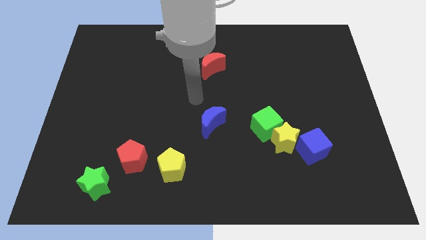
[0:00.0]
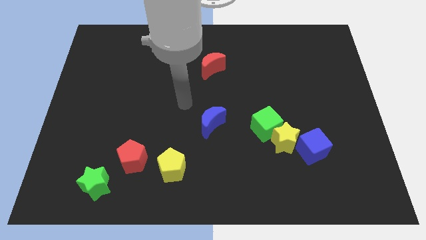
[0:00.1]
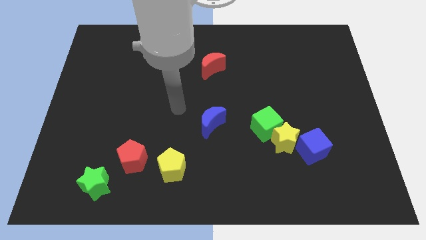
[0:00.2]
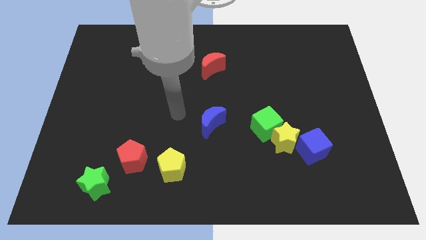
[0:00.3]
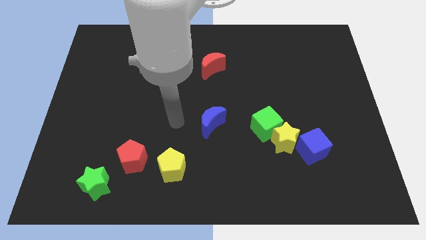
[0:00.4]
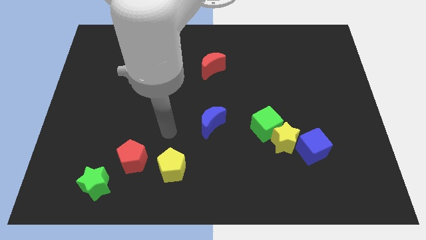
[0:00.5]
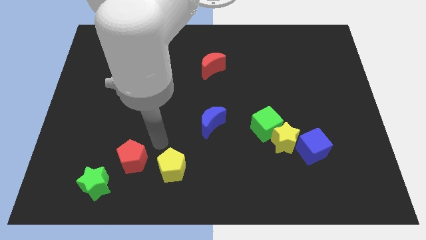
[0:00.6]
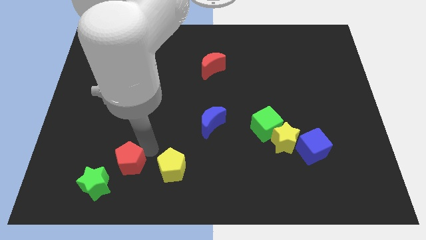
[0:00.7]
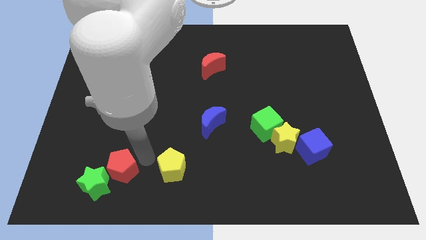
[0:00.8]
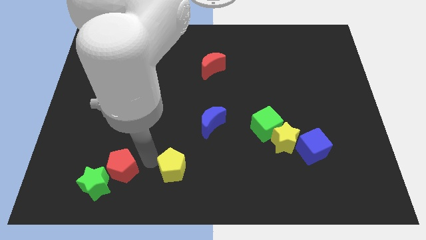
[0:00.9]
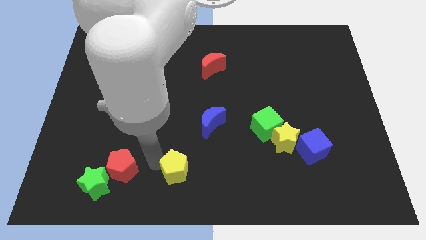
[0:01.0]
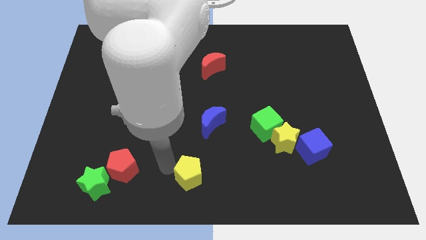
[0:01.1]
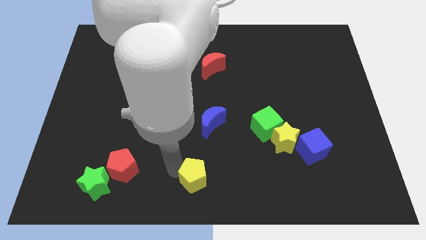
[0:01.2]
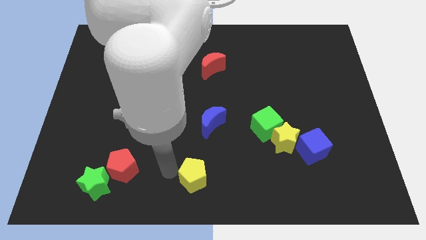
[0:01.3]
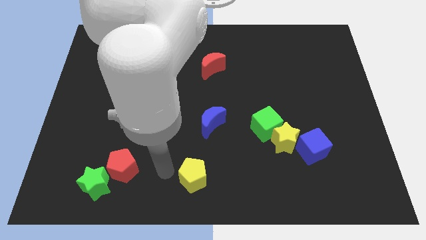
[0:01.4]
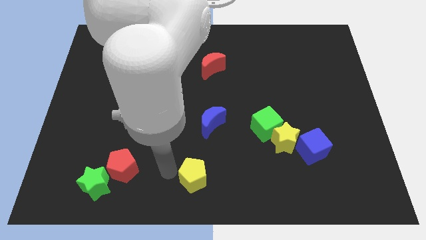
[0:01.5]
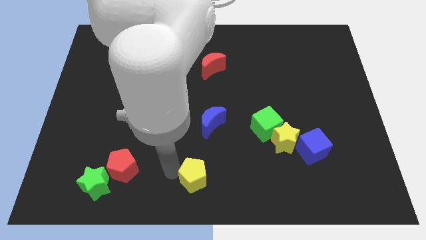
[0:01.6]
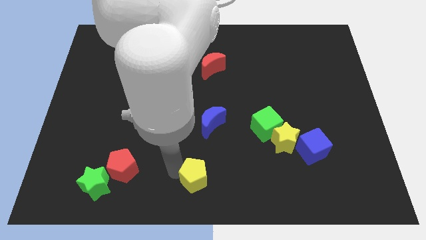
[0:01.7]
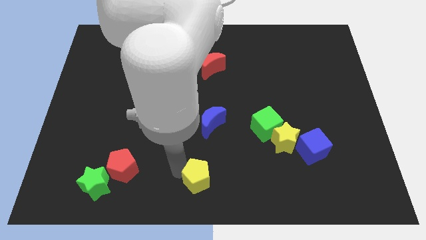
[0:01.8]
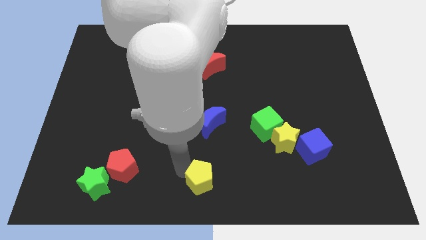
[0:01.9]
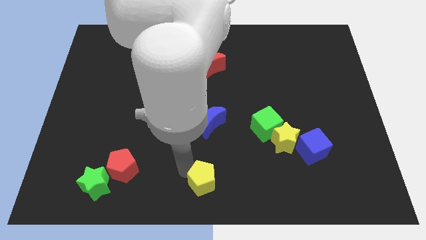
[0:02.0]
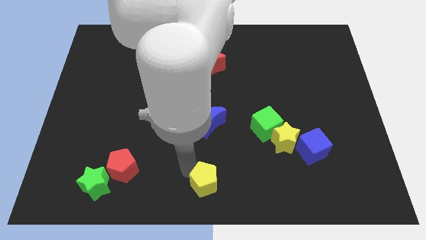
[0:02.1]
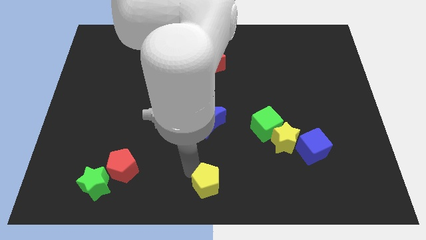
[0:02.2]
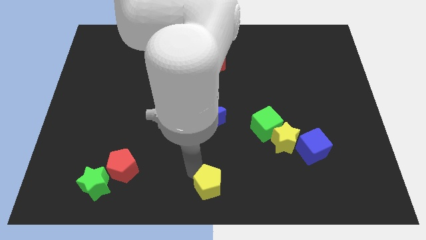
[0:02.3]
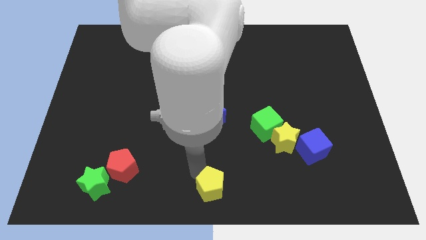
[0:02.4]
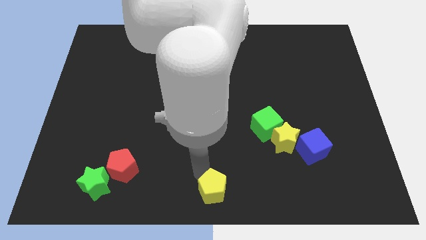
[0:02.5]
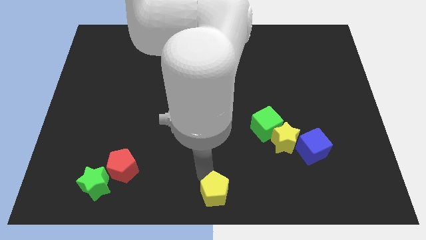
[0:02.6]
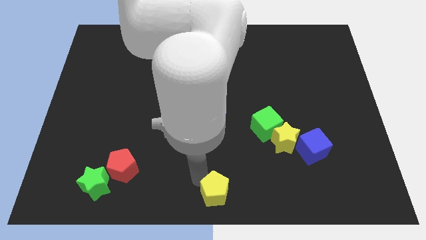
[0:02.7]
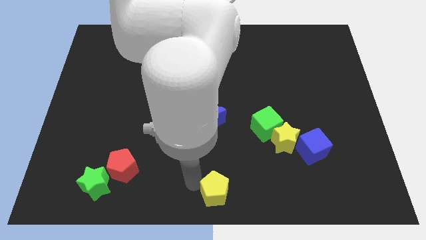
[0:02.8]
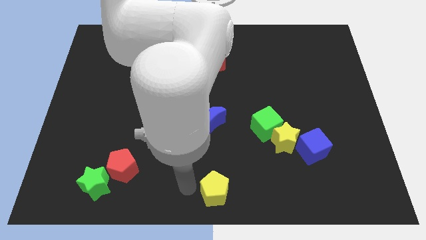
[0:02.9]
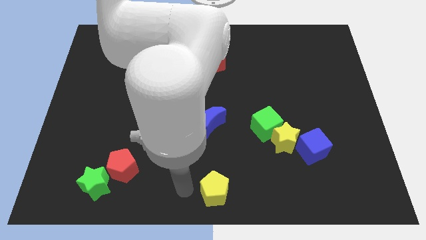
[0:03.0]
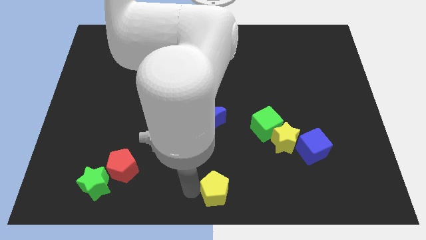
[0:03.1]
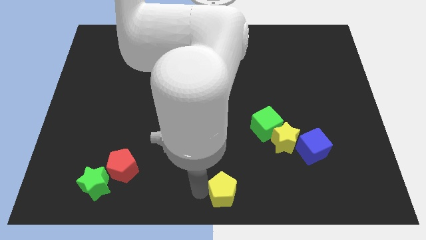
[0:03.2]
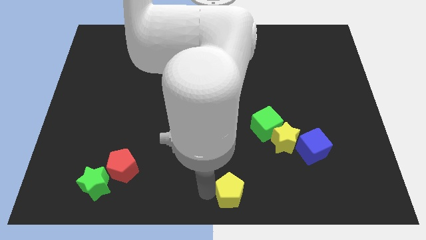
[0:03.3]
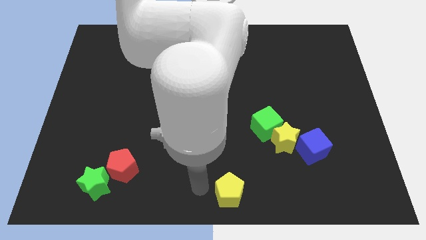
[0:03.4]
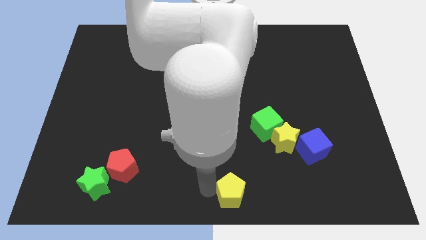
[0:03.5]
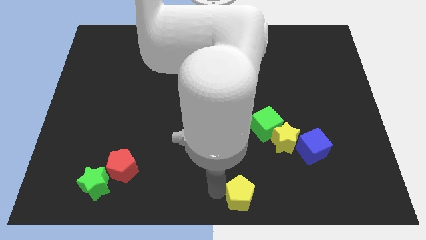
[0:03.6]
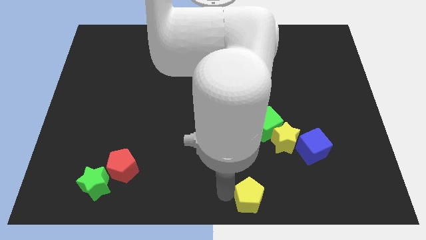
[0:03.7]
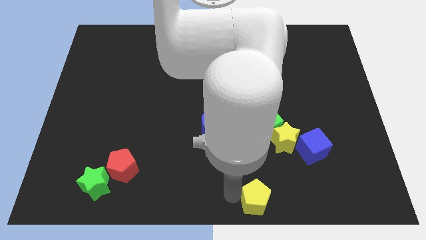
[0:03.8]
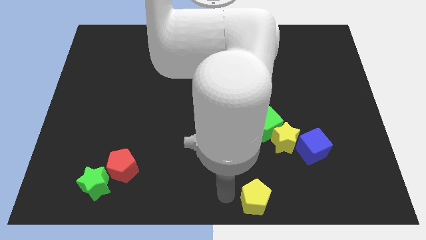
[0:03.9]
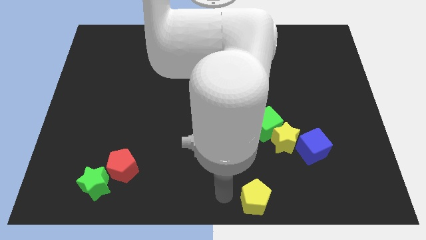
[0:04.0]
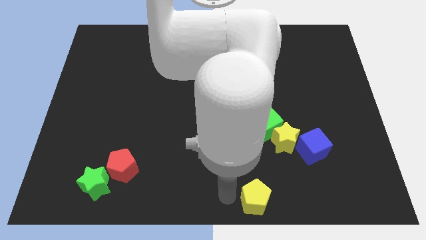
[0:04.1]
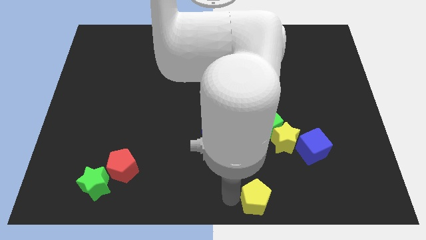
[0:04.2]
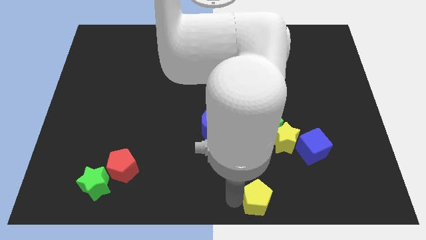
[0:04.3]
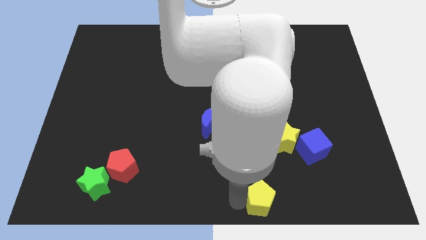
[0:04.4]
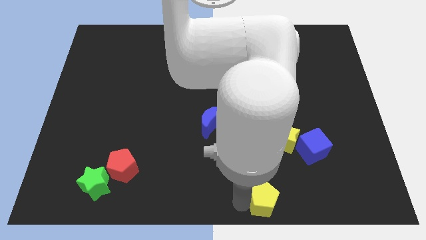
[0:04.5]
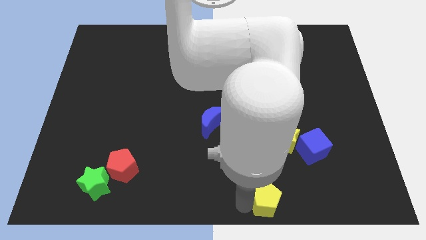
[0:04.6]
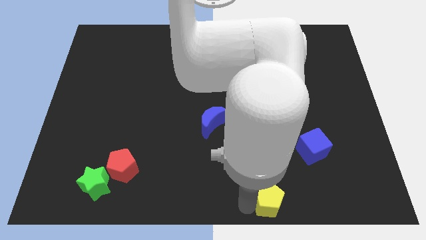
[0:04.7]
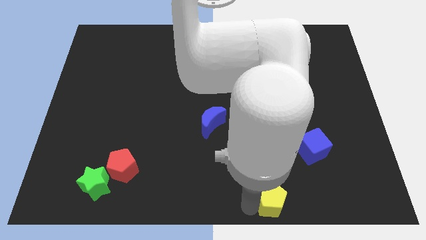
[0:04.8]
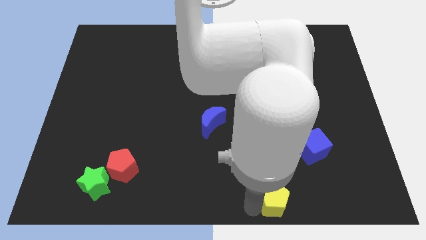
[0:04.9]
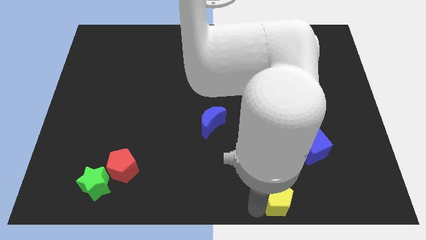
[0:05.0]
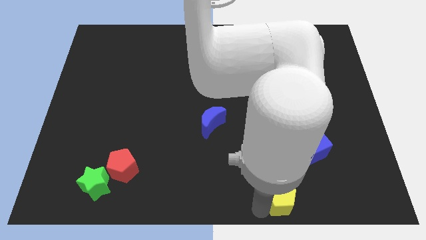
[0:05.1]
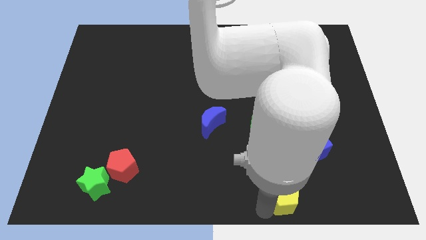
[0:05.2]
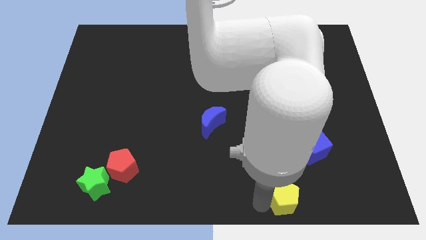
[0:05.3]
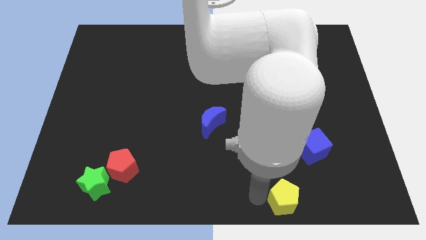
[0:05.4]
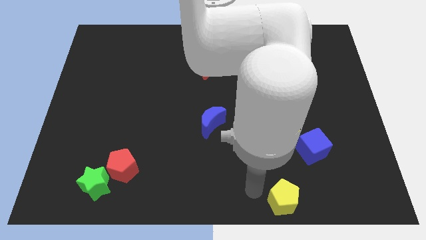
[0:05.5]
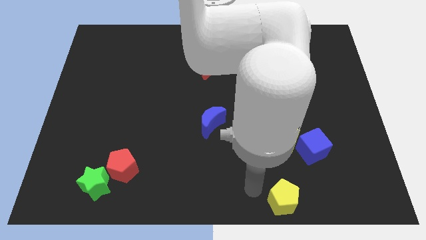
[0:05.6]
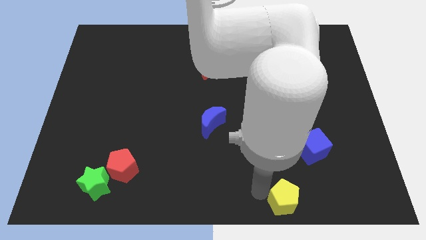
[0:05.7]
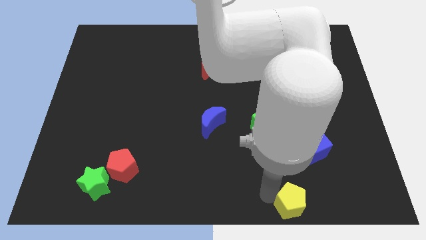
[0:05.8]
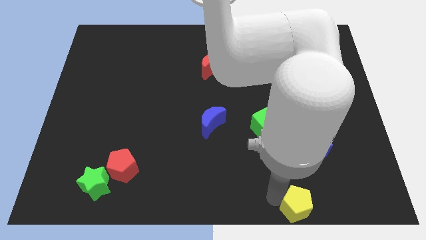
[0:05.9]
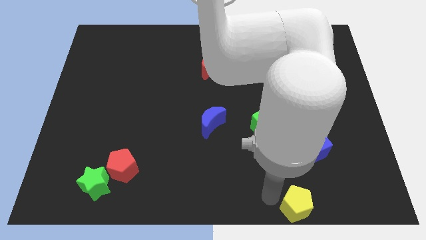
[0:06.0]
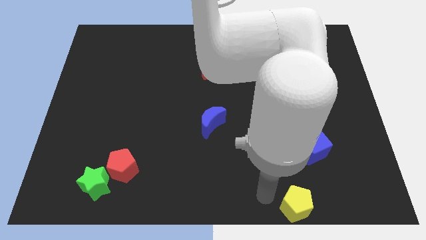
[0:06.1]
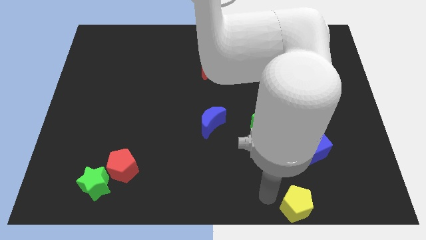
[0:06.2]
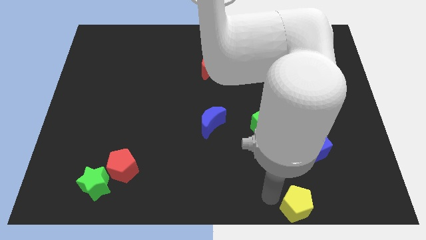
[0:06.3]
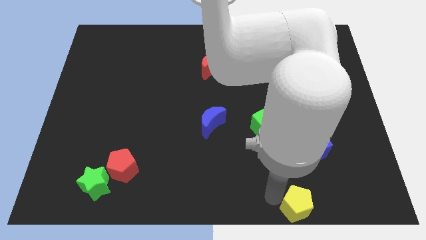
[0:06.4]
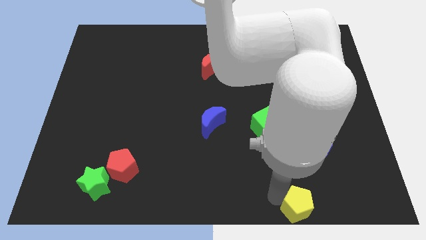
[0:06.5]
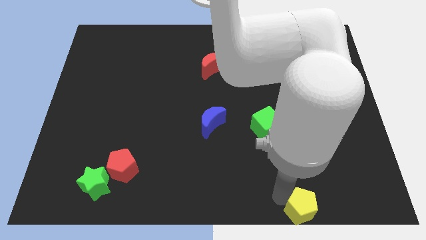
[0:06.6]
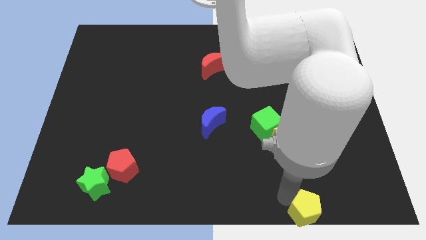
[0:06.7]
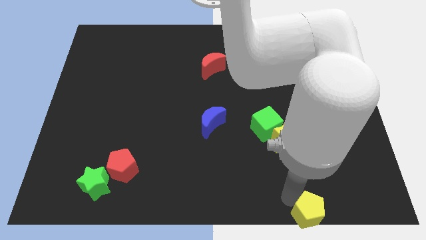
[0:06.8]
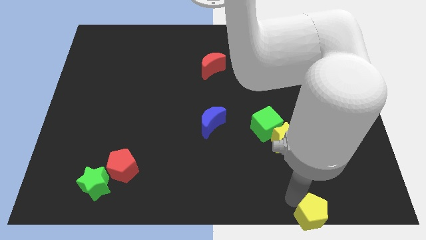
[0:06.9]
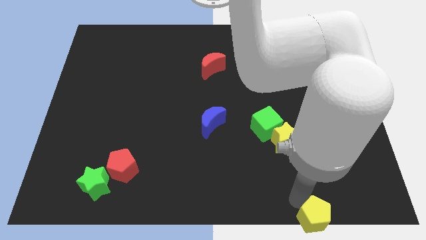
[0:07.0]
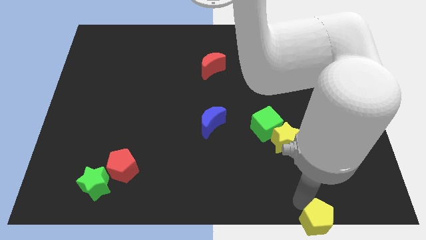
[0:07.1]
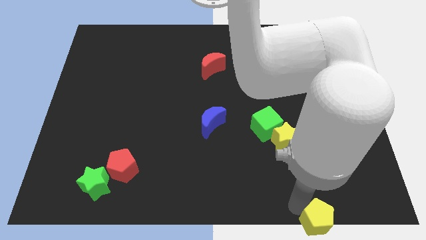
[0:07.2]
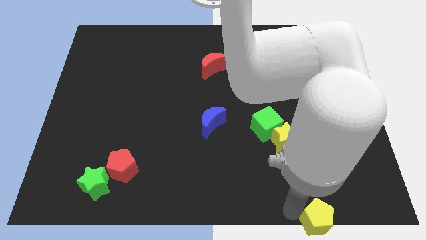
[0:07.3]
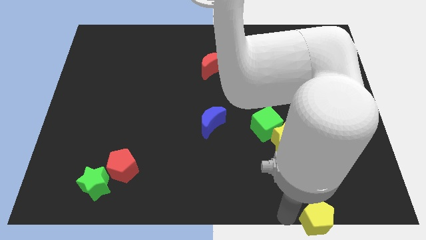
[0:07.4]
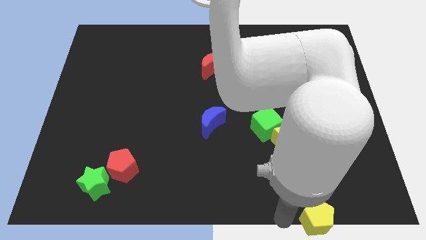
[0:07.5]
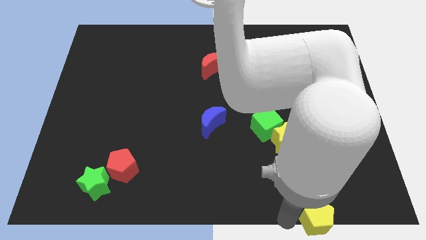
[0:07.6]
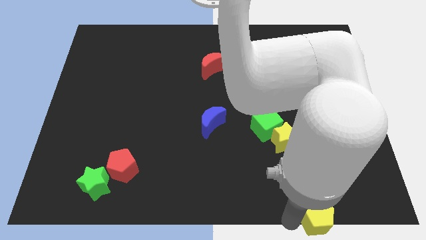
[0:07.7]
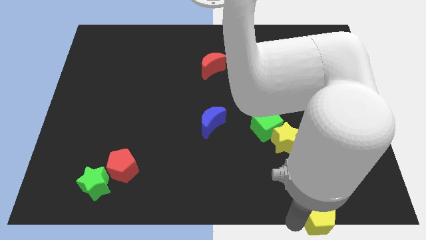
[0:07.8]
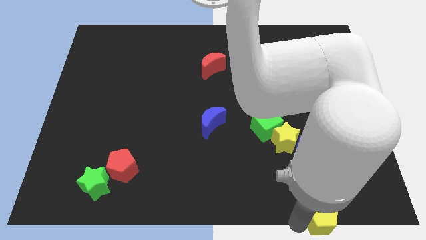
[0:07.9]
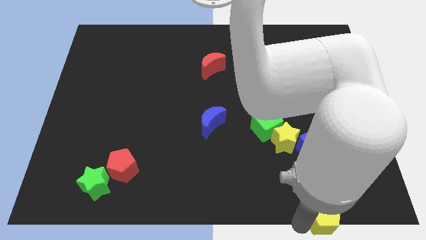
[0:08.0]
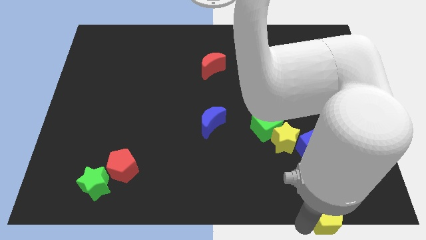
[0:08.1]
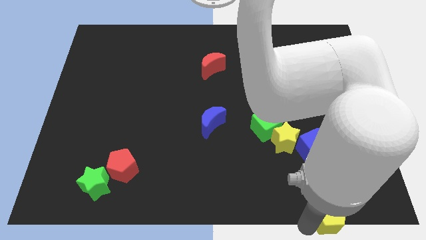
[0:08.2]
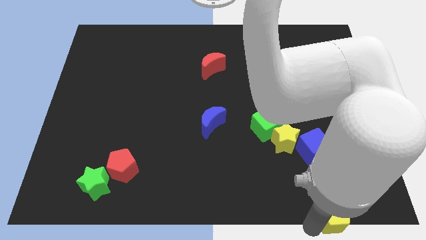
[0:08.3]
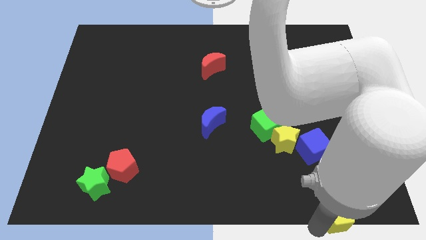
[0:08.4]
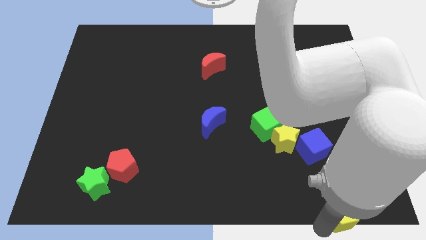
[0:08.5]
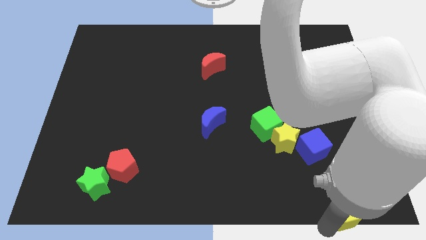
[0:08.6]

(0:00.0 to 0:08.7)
slide the yellow pentagon to the bottom right of the board
